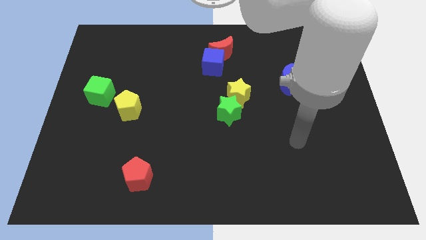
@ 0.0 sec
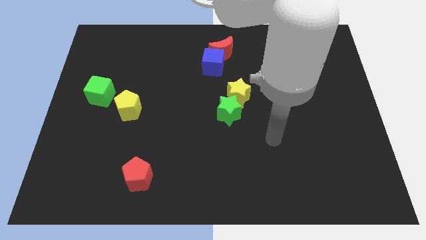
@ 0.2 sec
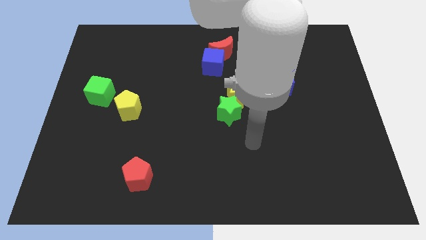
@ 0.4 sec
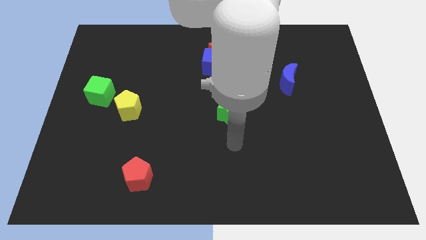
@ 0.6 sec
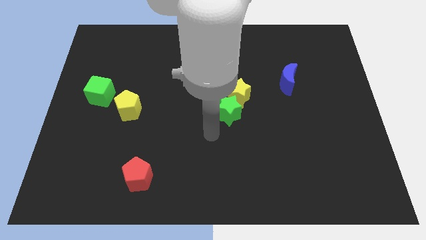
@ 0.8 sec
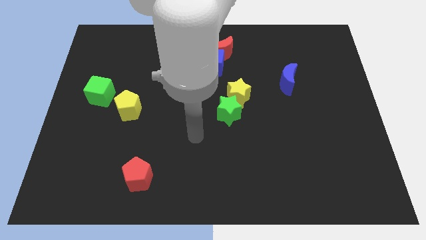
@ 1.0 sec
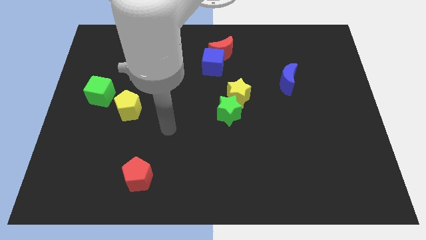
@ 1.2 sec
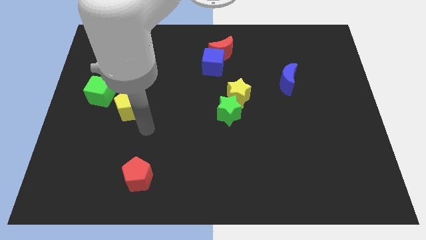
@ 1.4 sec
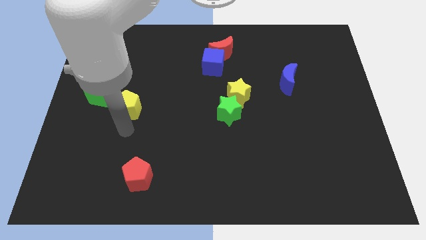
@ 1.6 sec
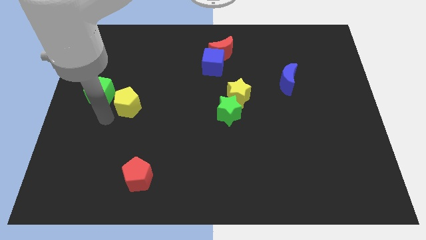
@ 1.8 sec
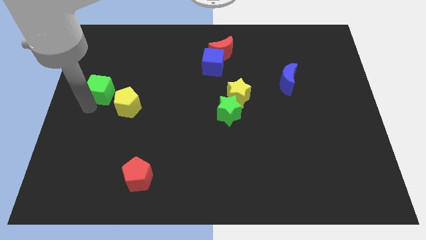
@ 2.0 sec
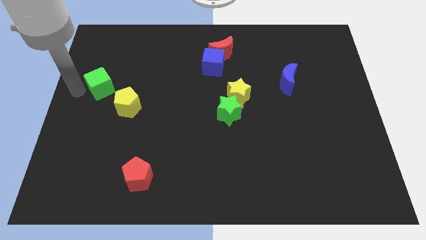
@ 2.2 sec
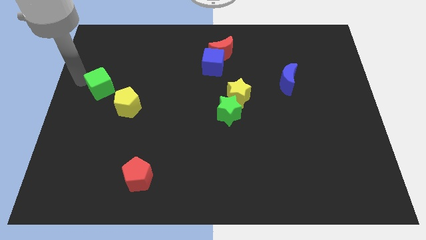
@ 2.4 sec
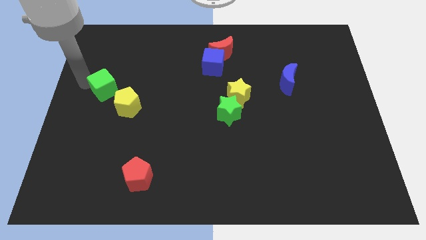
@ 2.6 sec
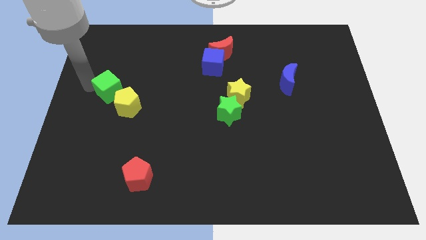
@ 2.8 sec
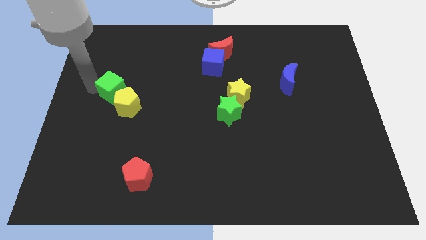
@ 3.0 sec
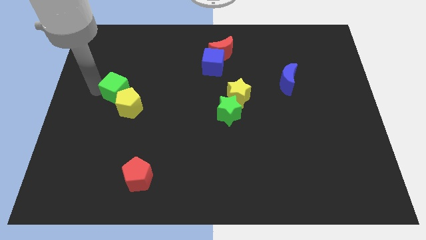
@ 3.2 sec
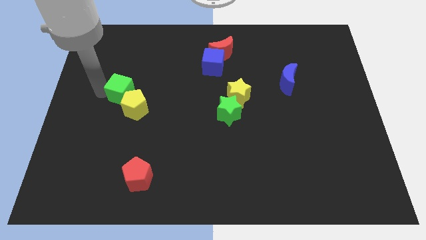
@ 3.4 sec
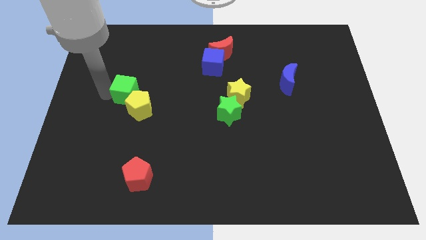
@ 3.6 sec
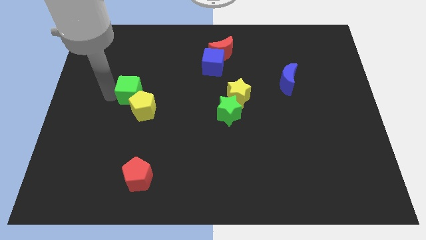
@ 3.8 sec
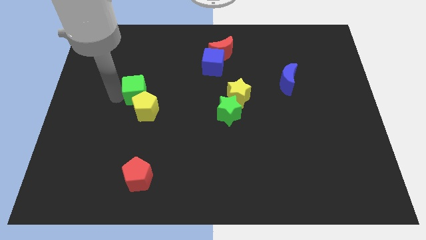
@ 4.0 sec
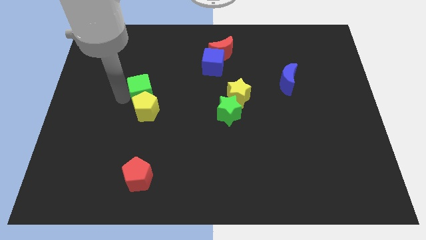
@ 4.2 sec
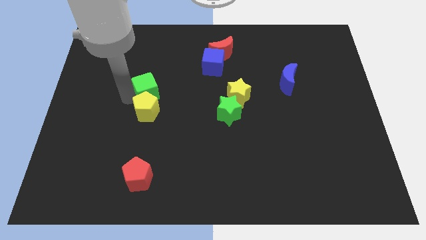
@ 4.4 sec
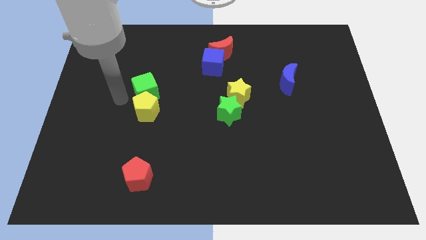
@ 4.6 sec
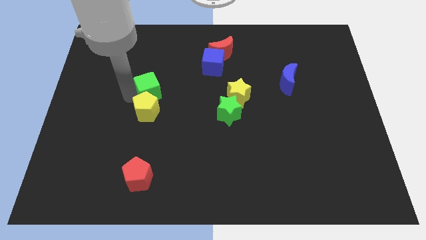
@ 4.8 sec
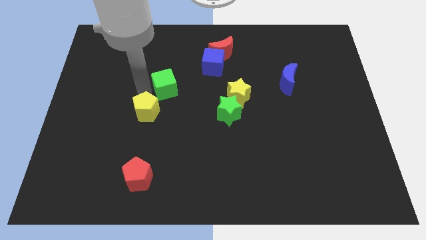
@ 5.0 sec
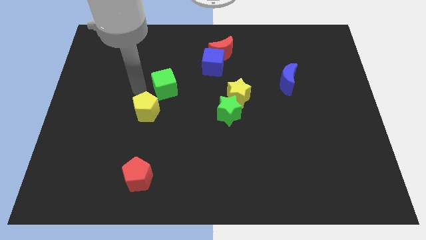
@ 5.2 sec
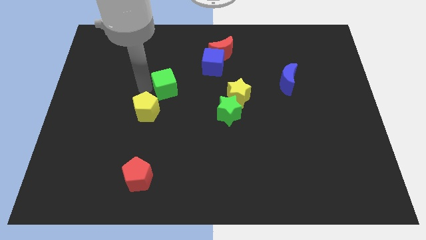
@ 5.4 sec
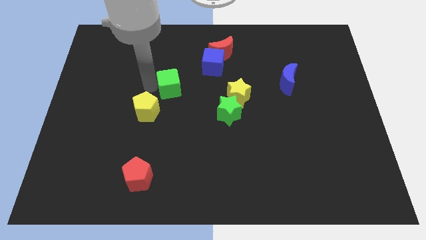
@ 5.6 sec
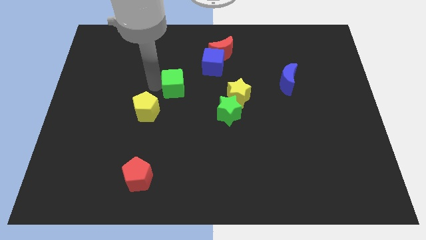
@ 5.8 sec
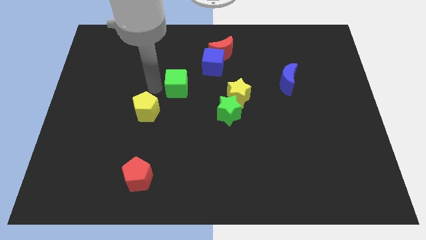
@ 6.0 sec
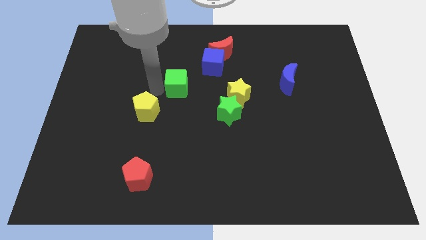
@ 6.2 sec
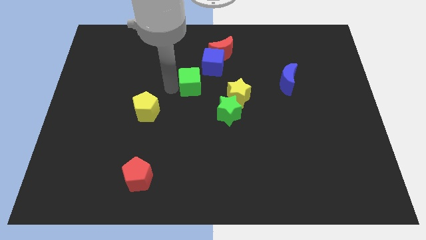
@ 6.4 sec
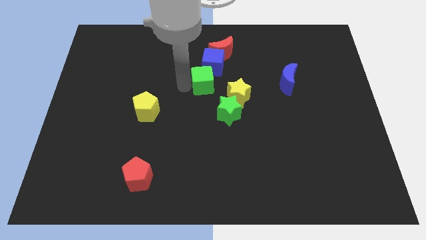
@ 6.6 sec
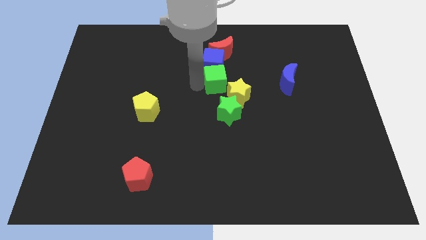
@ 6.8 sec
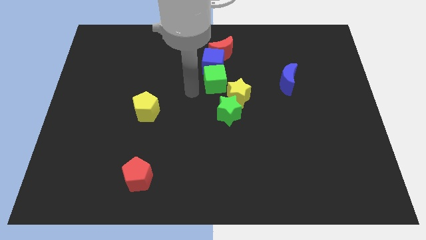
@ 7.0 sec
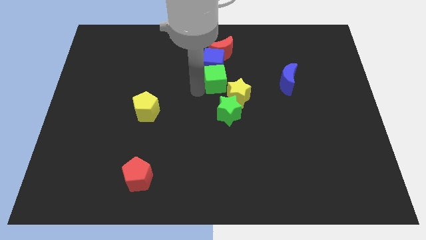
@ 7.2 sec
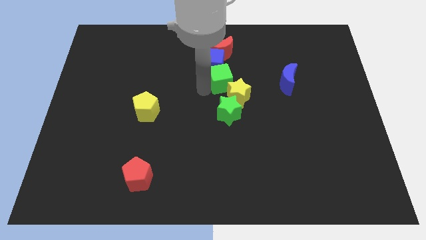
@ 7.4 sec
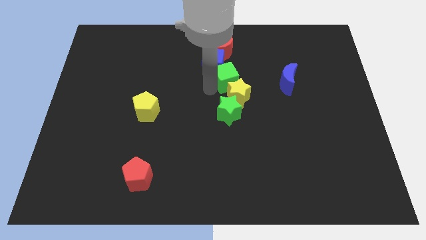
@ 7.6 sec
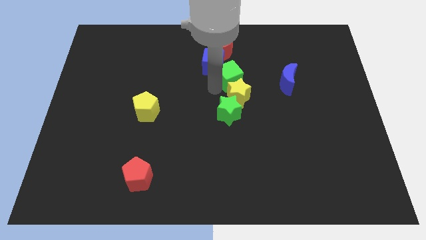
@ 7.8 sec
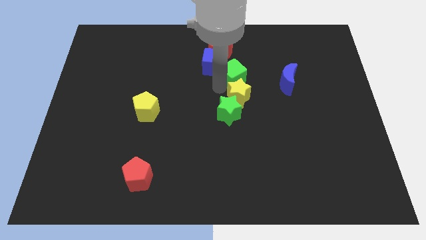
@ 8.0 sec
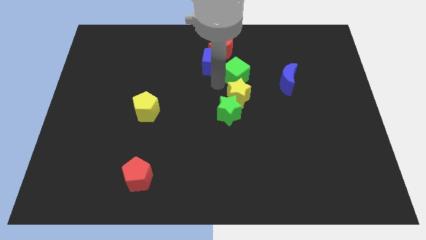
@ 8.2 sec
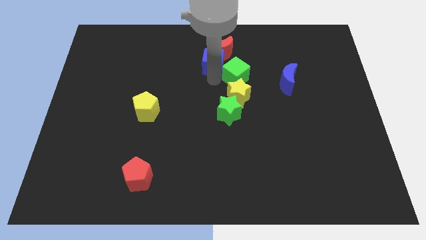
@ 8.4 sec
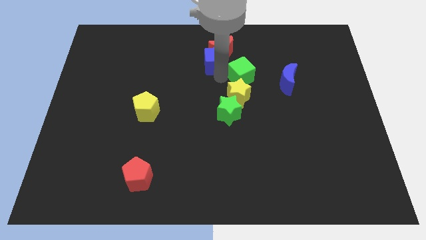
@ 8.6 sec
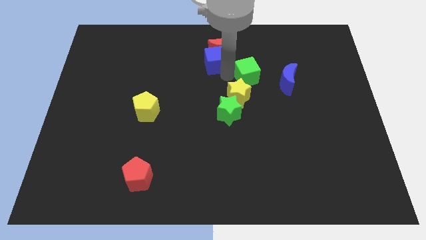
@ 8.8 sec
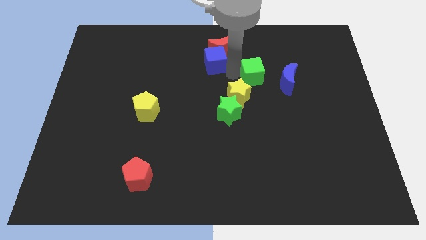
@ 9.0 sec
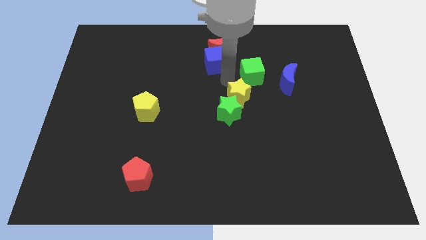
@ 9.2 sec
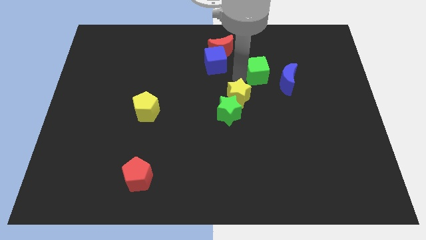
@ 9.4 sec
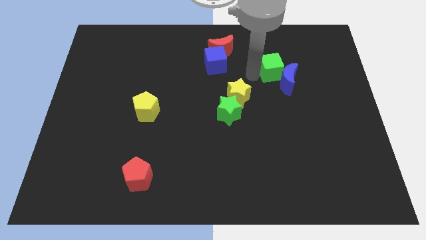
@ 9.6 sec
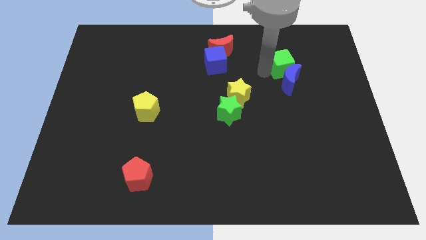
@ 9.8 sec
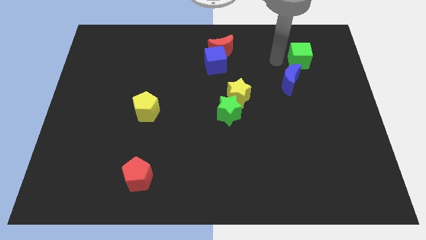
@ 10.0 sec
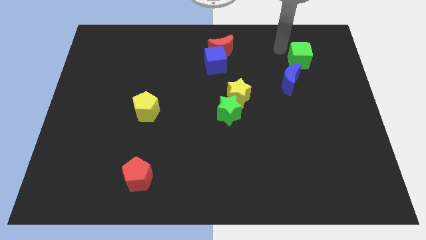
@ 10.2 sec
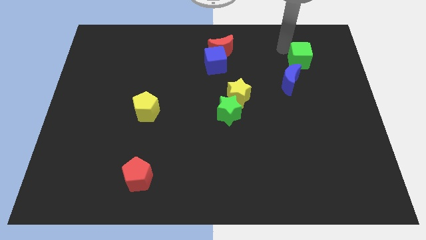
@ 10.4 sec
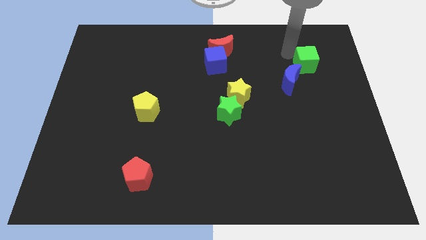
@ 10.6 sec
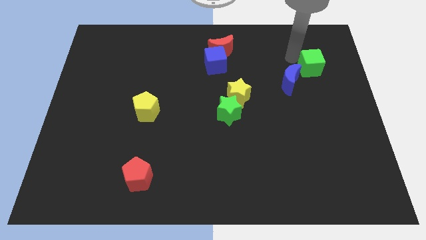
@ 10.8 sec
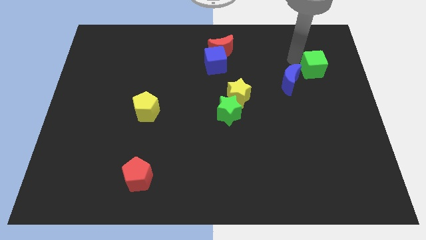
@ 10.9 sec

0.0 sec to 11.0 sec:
push the green cube to the right of the blue moon

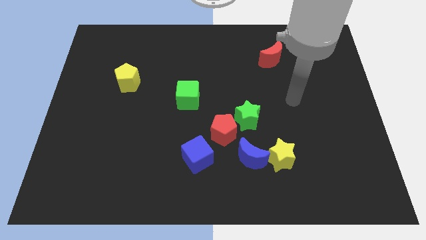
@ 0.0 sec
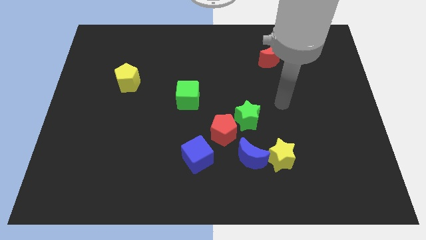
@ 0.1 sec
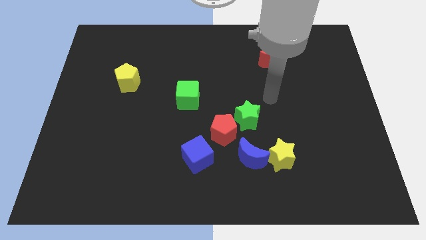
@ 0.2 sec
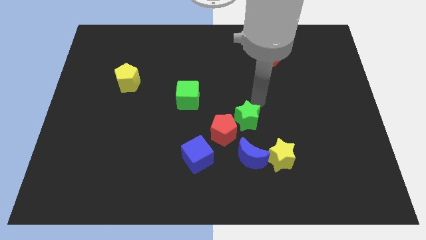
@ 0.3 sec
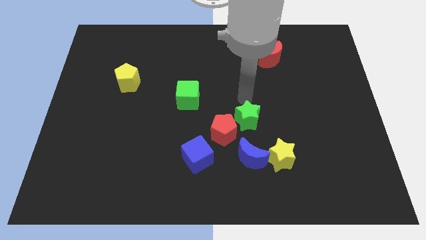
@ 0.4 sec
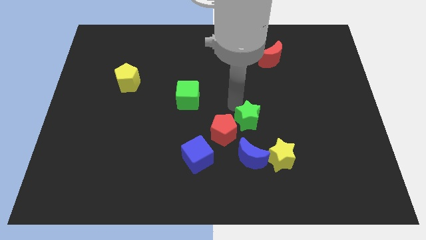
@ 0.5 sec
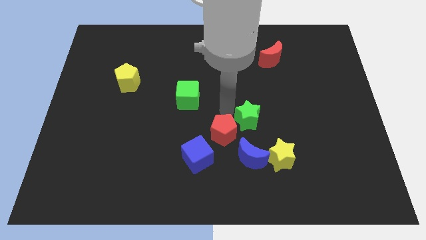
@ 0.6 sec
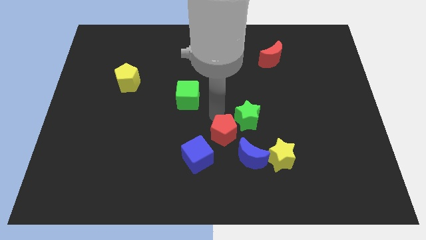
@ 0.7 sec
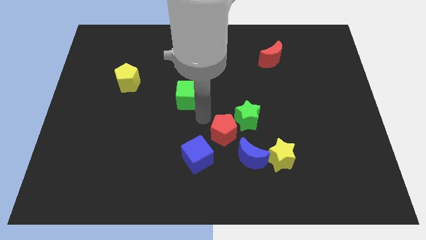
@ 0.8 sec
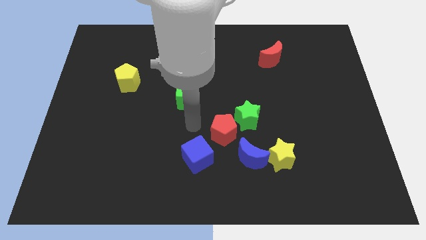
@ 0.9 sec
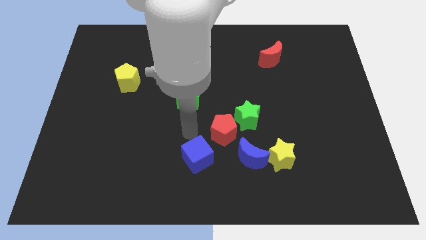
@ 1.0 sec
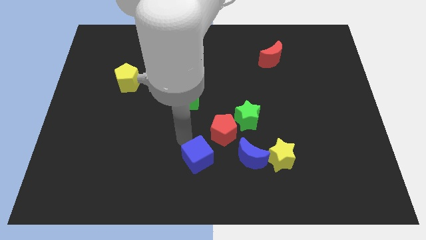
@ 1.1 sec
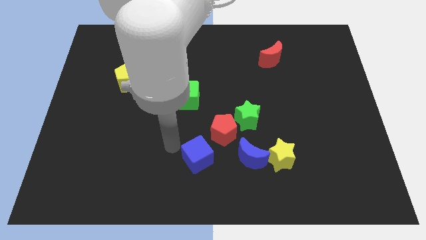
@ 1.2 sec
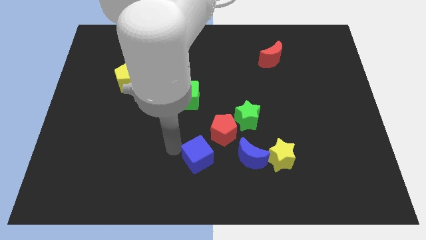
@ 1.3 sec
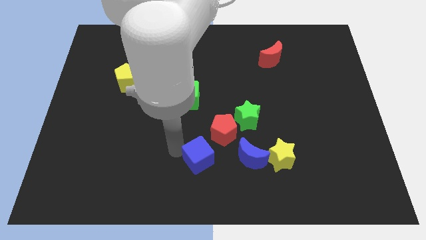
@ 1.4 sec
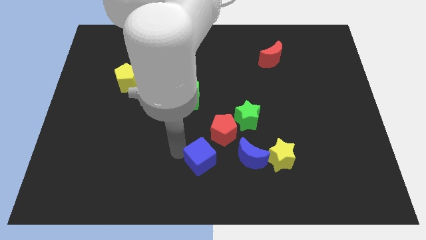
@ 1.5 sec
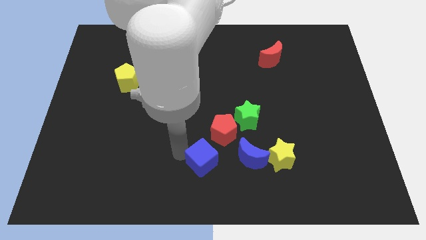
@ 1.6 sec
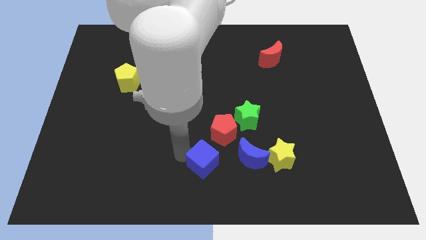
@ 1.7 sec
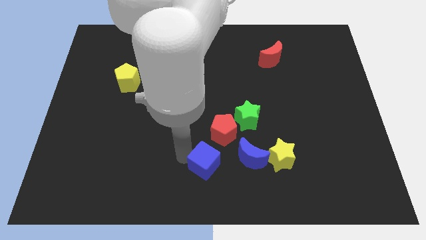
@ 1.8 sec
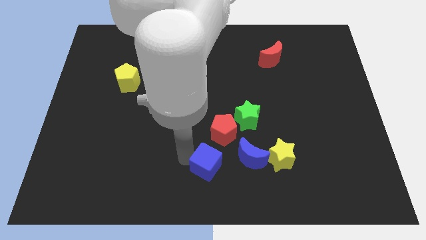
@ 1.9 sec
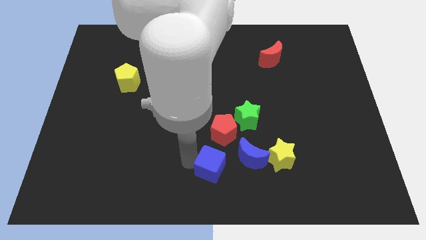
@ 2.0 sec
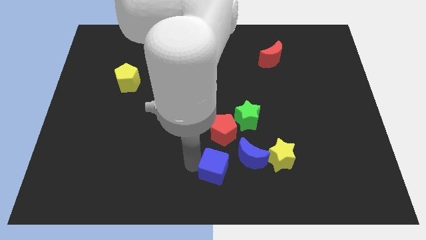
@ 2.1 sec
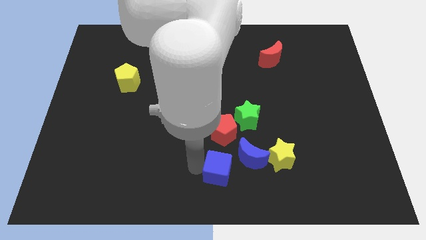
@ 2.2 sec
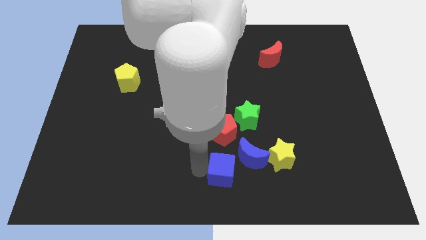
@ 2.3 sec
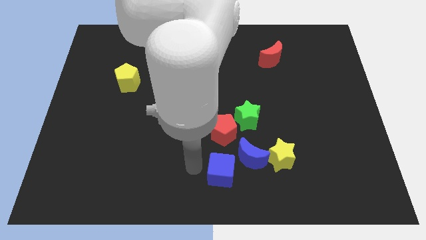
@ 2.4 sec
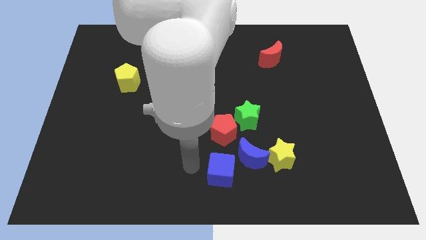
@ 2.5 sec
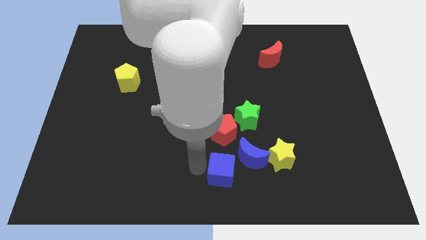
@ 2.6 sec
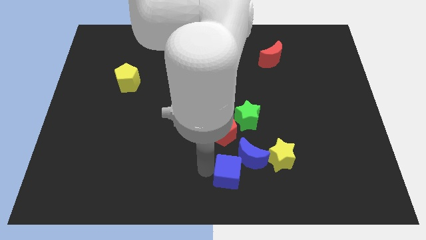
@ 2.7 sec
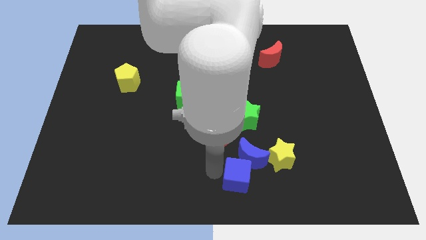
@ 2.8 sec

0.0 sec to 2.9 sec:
push the blue cube diagonally down and to the left of the yellow star
